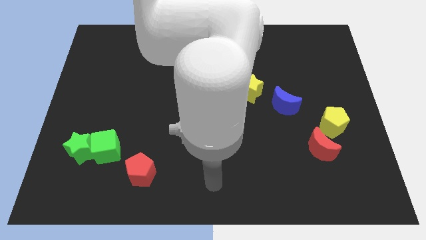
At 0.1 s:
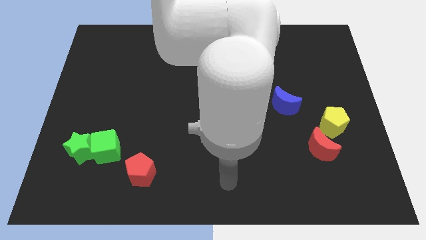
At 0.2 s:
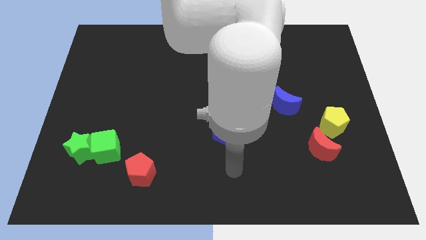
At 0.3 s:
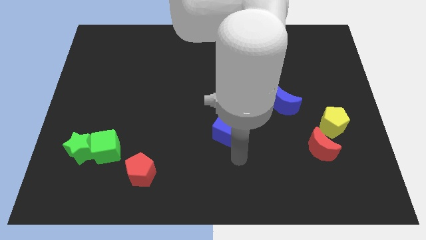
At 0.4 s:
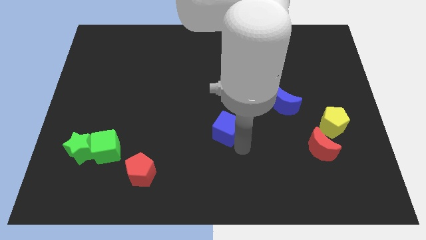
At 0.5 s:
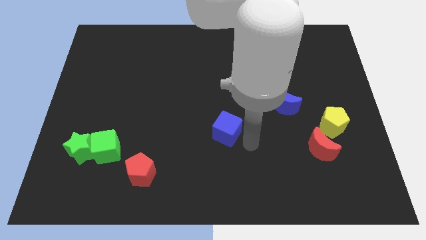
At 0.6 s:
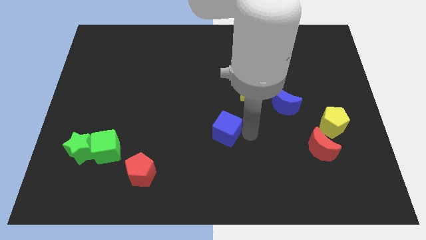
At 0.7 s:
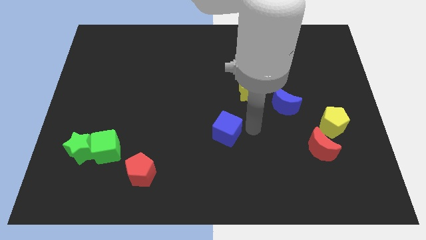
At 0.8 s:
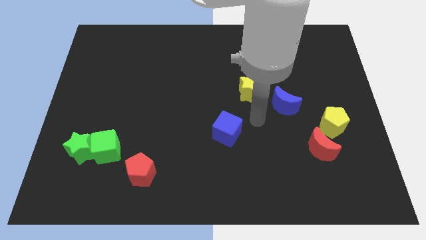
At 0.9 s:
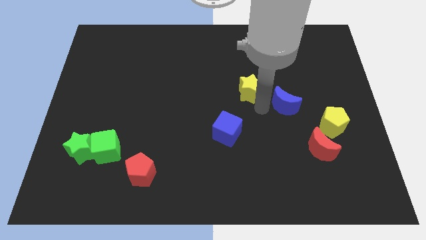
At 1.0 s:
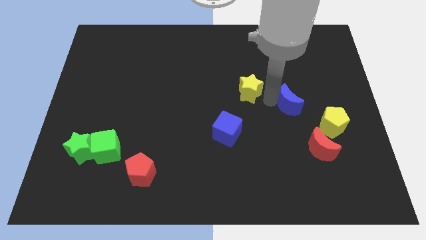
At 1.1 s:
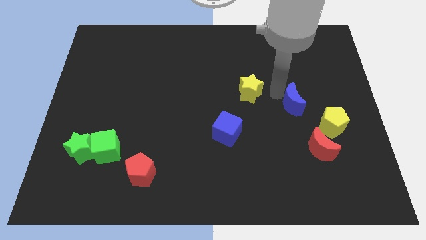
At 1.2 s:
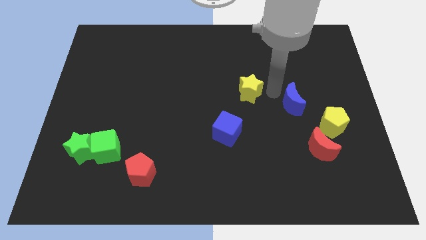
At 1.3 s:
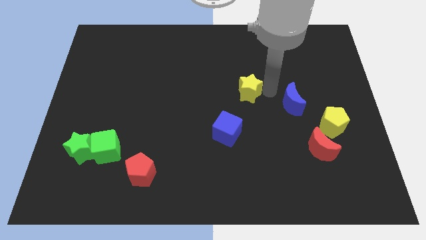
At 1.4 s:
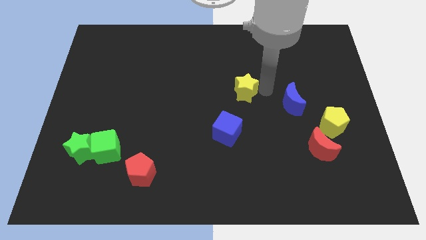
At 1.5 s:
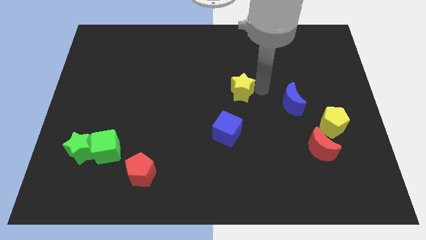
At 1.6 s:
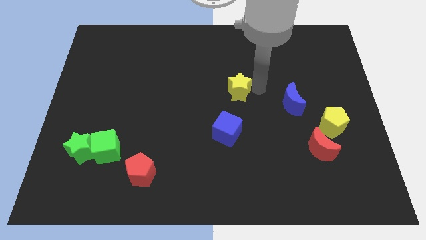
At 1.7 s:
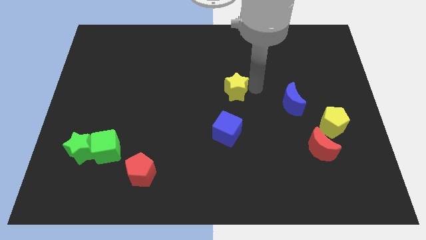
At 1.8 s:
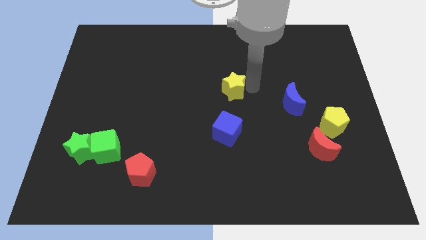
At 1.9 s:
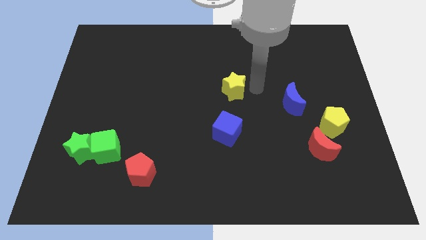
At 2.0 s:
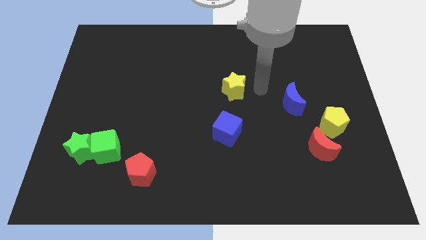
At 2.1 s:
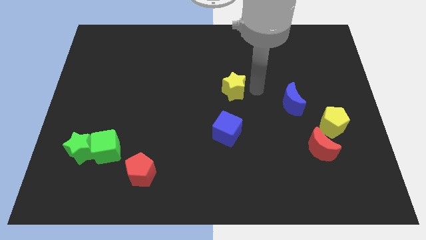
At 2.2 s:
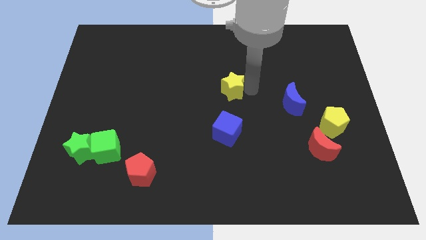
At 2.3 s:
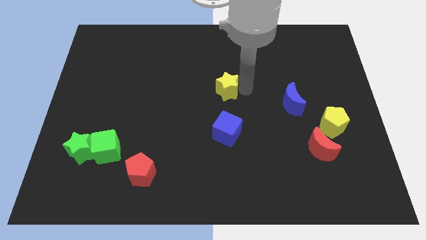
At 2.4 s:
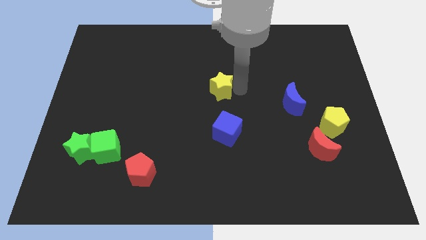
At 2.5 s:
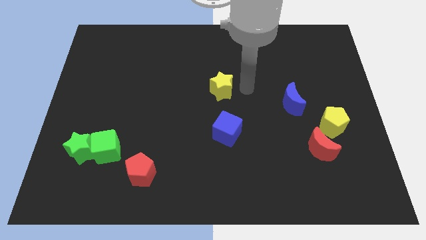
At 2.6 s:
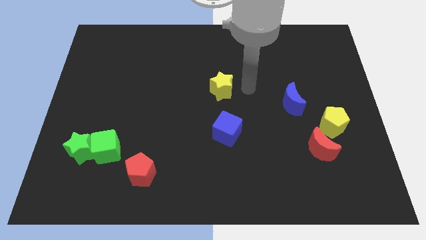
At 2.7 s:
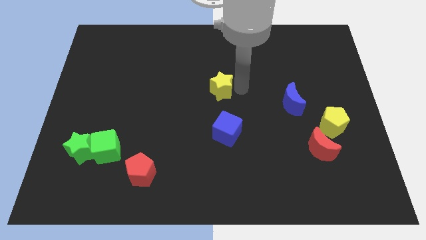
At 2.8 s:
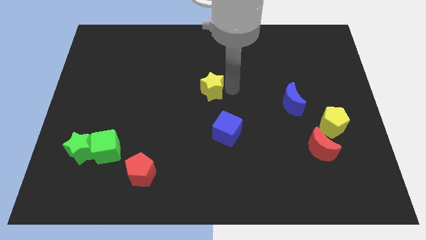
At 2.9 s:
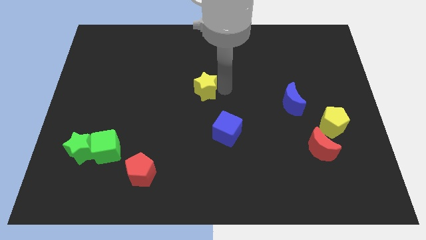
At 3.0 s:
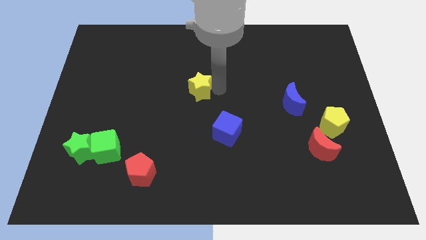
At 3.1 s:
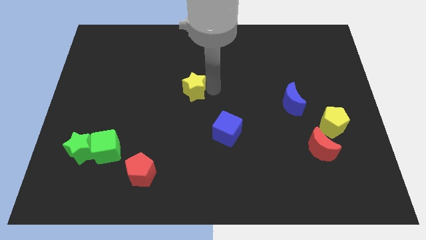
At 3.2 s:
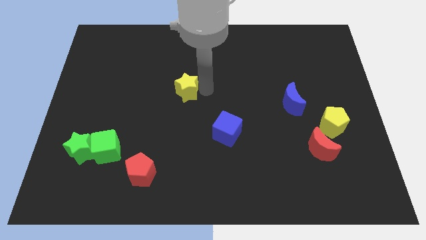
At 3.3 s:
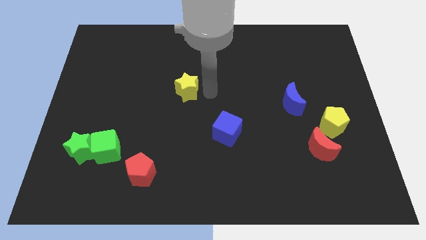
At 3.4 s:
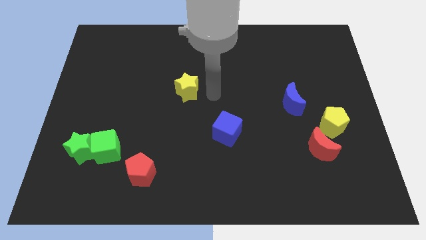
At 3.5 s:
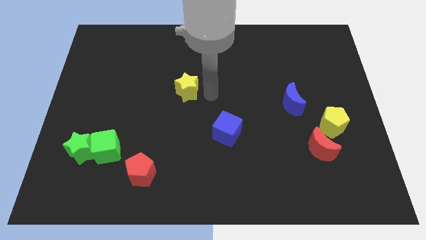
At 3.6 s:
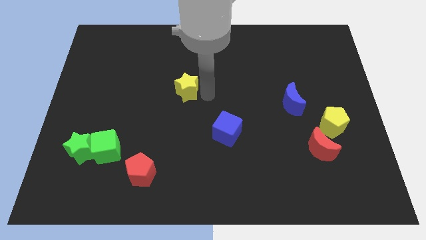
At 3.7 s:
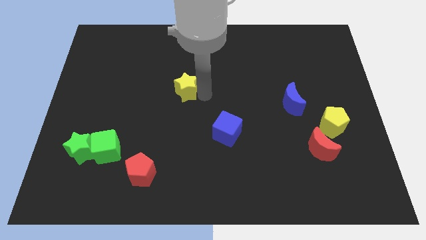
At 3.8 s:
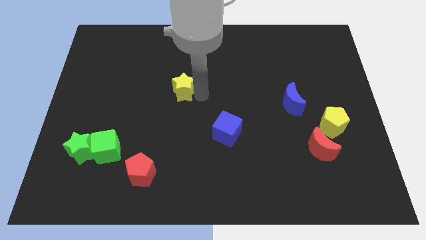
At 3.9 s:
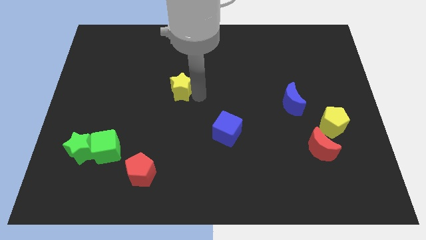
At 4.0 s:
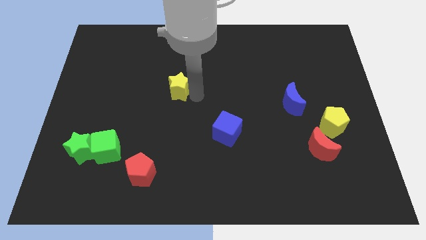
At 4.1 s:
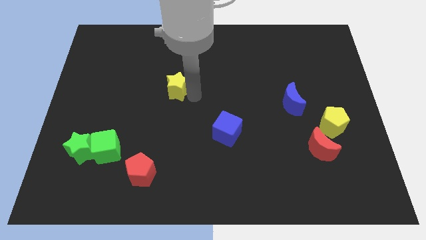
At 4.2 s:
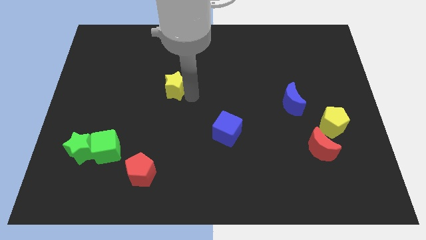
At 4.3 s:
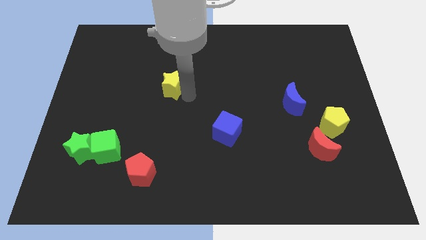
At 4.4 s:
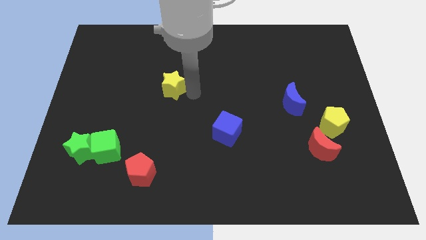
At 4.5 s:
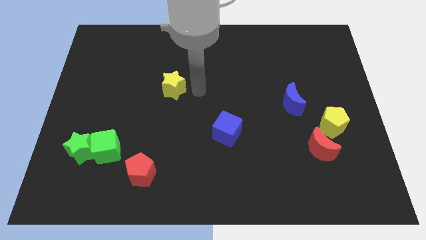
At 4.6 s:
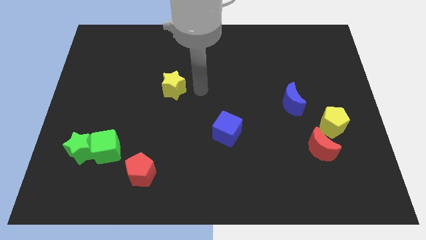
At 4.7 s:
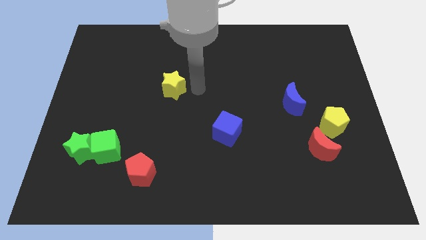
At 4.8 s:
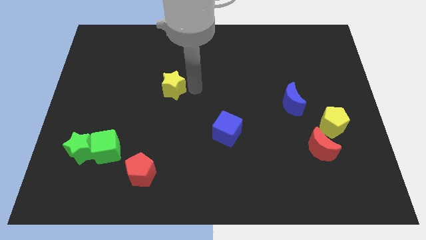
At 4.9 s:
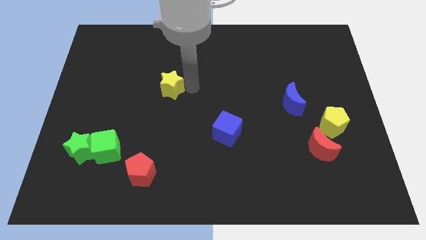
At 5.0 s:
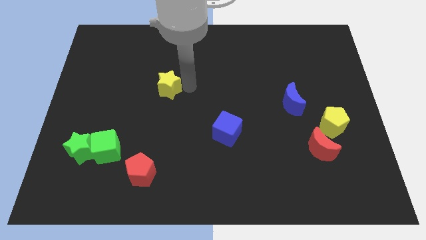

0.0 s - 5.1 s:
push the yellow star left

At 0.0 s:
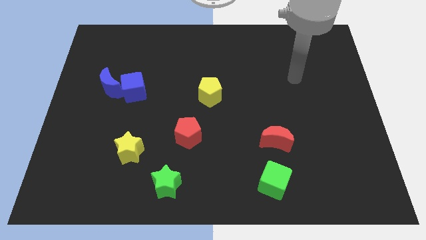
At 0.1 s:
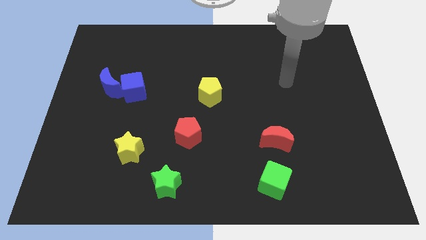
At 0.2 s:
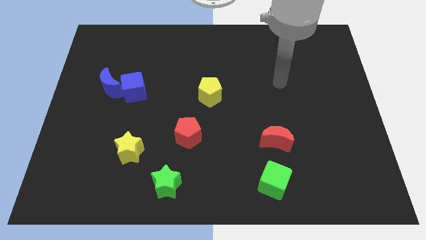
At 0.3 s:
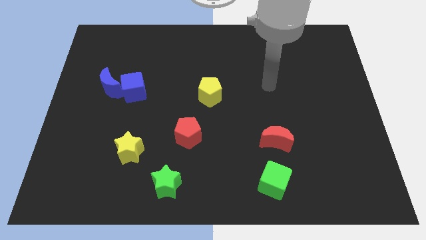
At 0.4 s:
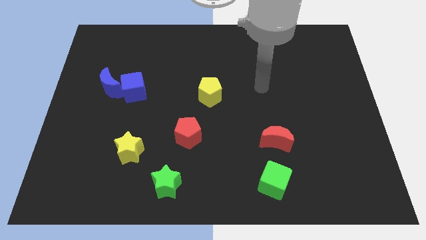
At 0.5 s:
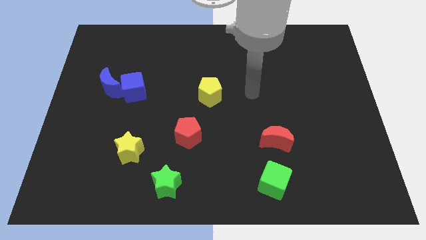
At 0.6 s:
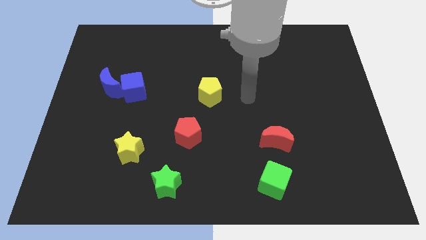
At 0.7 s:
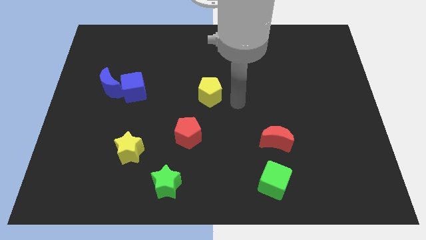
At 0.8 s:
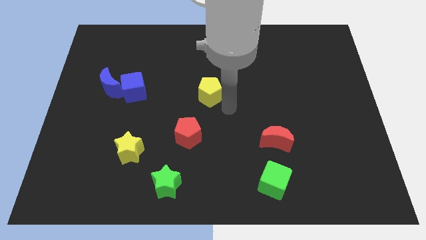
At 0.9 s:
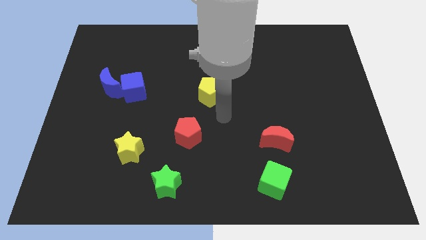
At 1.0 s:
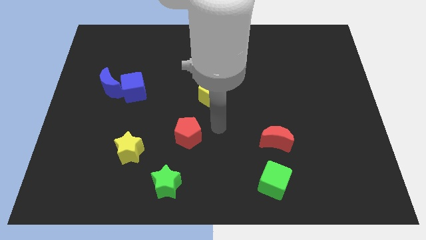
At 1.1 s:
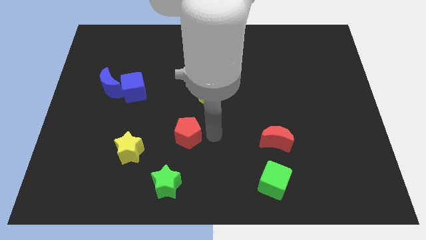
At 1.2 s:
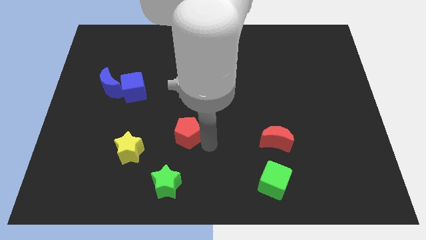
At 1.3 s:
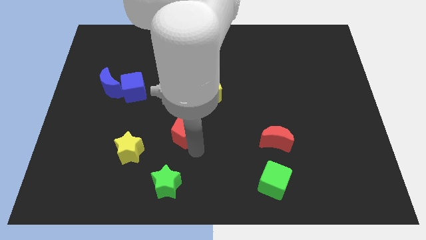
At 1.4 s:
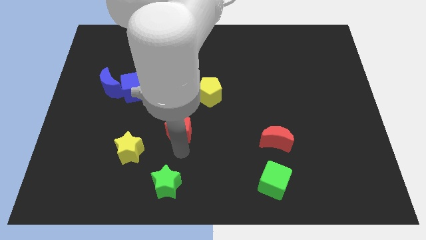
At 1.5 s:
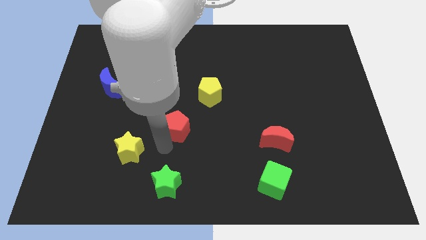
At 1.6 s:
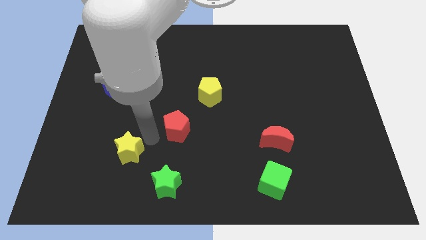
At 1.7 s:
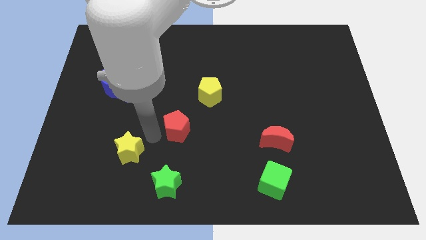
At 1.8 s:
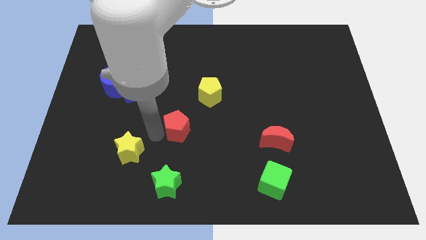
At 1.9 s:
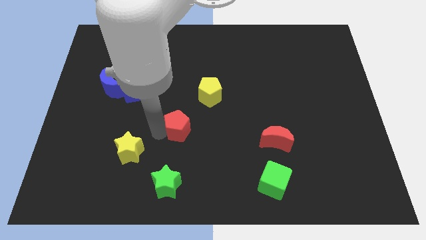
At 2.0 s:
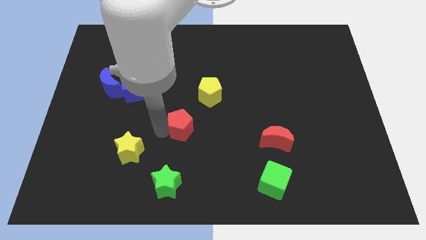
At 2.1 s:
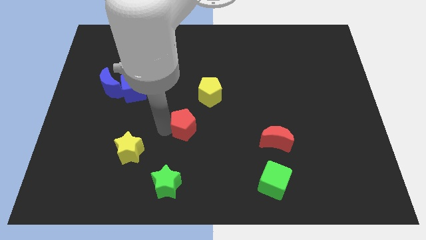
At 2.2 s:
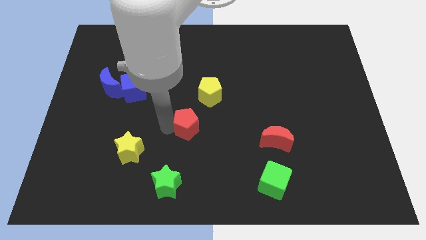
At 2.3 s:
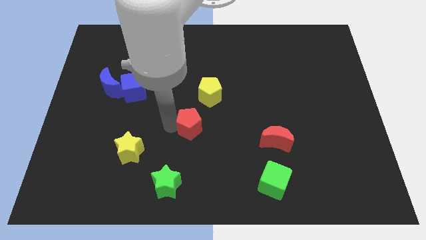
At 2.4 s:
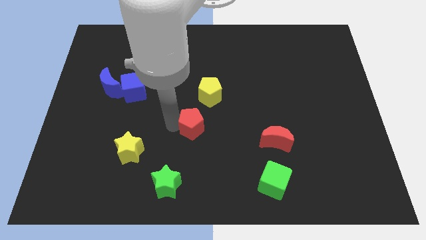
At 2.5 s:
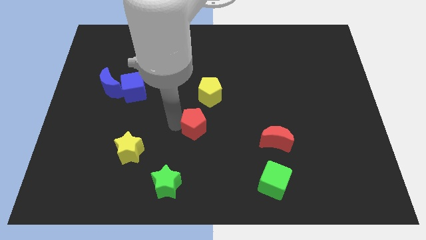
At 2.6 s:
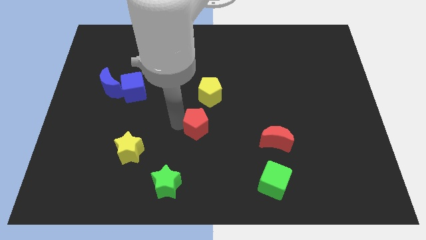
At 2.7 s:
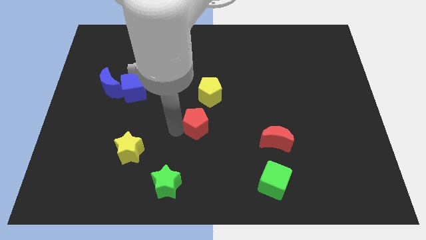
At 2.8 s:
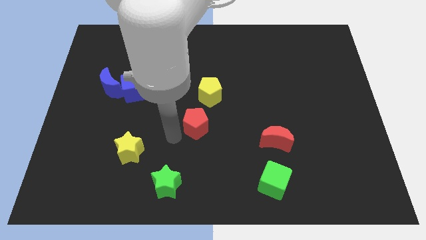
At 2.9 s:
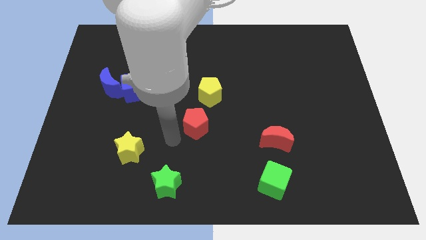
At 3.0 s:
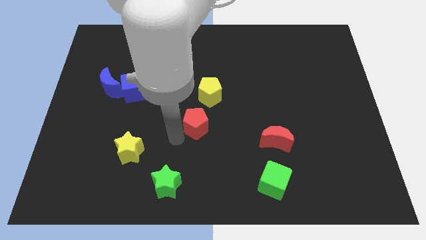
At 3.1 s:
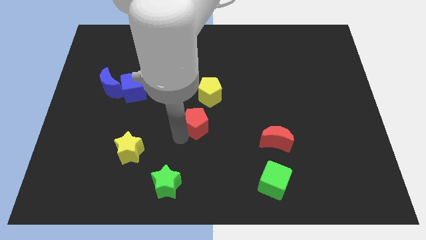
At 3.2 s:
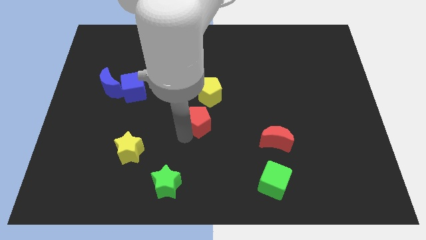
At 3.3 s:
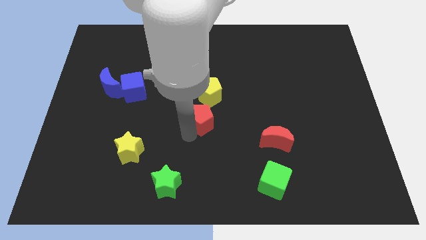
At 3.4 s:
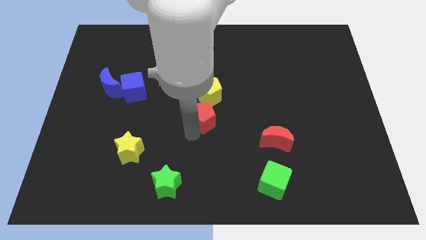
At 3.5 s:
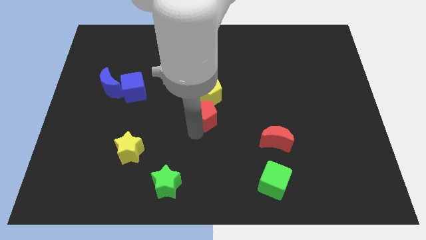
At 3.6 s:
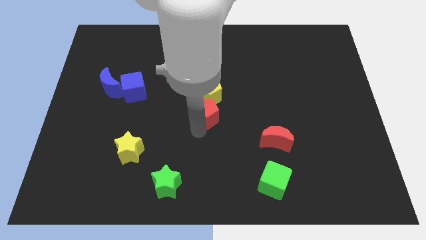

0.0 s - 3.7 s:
slide the red pentagon slightly upwards and then right
